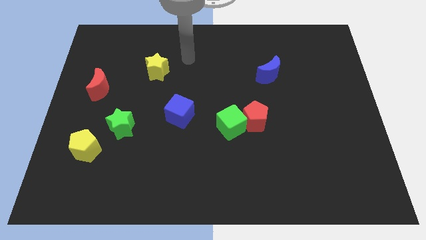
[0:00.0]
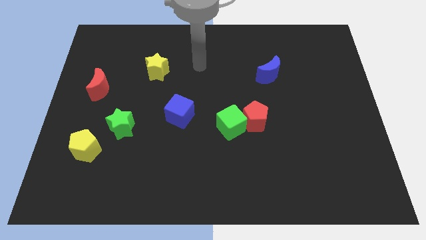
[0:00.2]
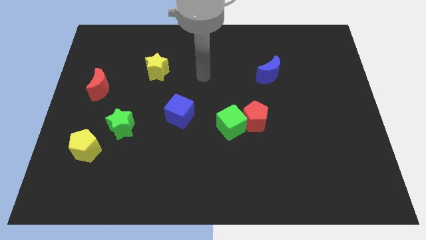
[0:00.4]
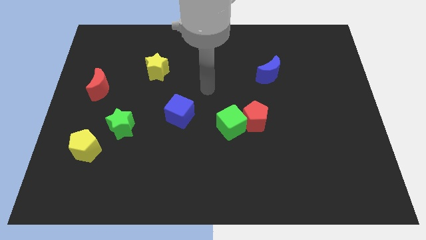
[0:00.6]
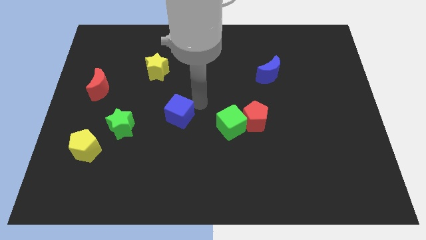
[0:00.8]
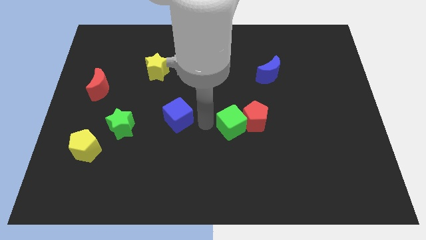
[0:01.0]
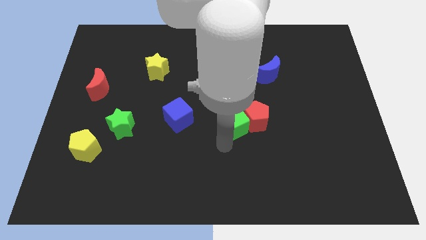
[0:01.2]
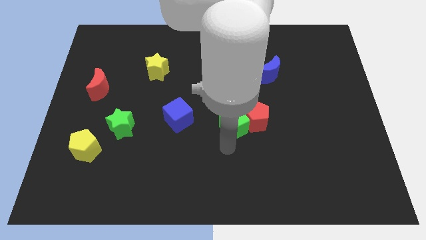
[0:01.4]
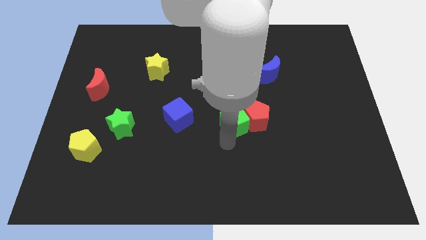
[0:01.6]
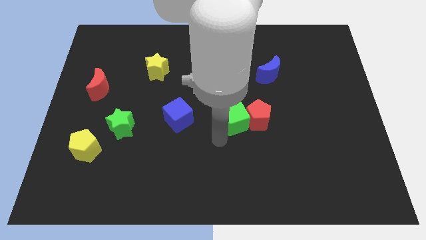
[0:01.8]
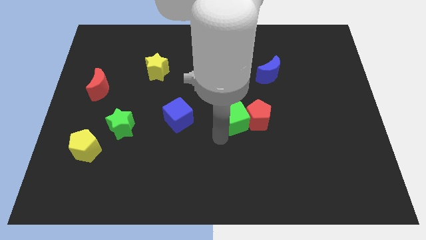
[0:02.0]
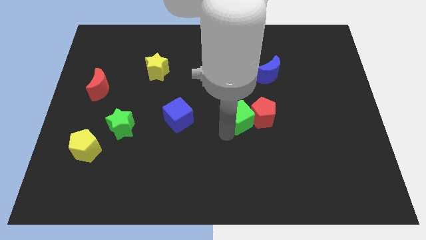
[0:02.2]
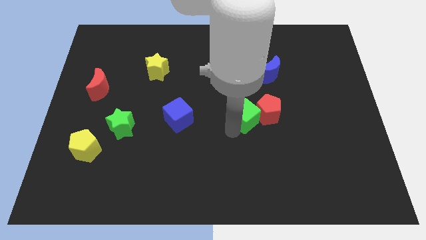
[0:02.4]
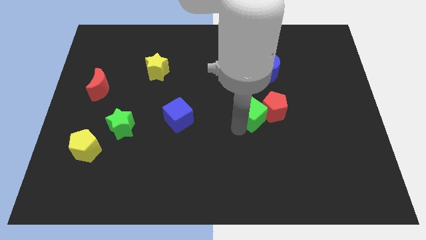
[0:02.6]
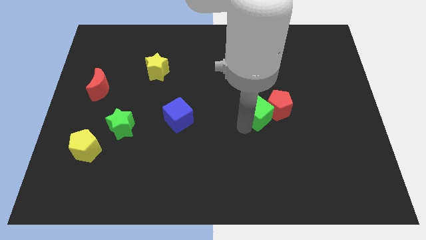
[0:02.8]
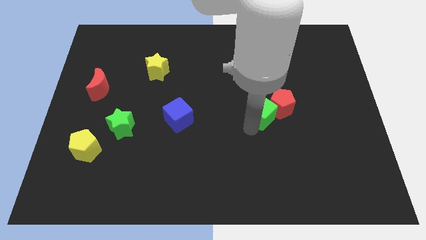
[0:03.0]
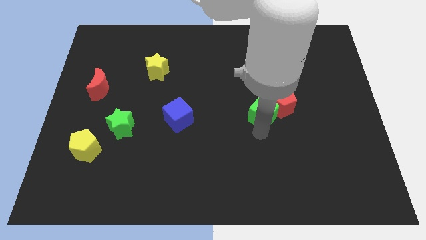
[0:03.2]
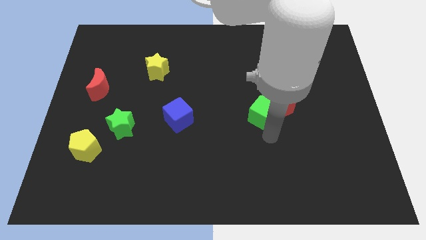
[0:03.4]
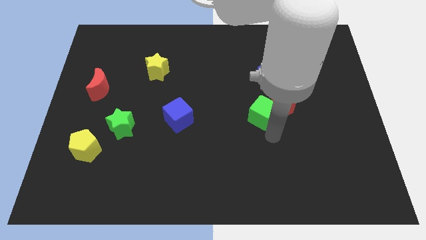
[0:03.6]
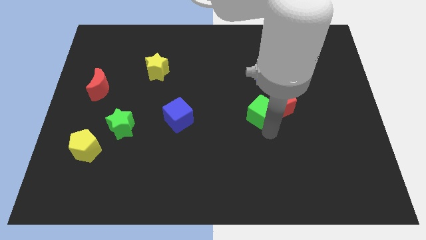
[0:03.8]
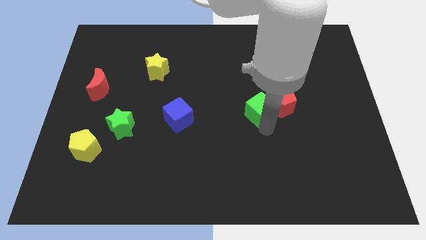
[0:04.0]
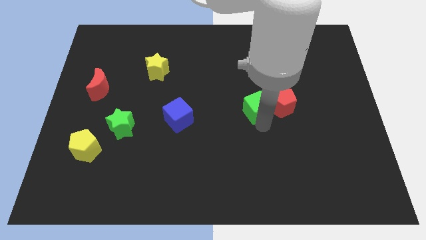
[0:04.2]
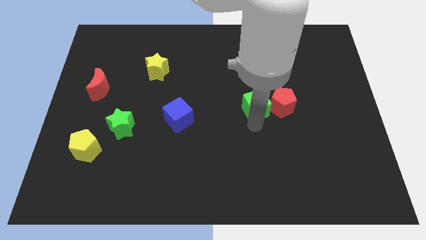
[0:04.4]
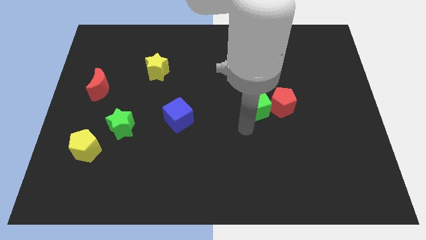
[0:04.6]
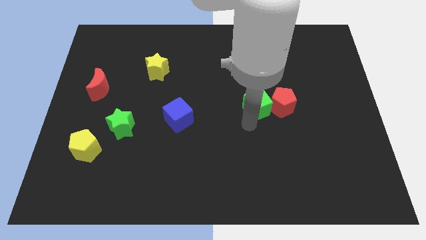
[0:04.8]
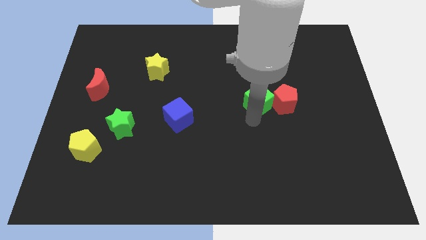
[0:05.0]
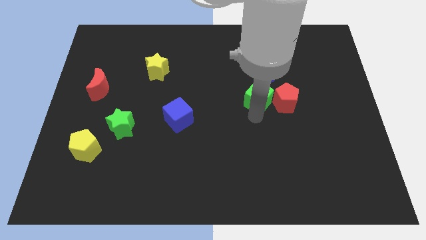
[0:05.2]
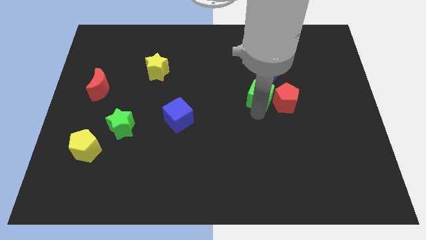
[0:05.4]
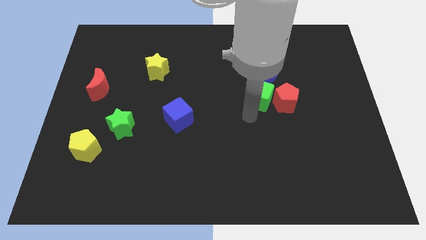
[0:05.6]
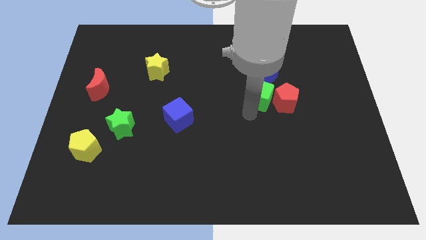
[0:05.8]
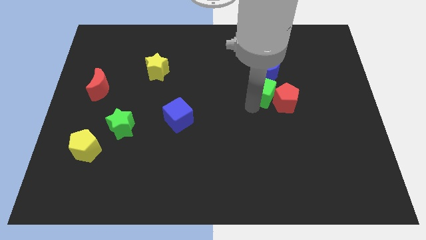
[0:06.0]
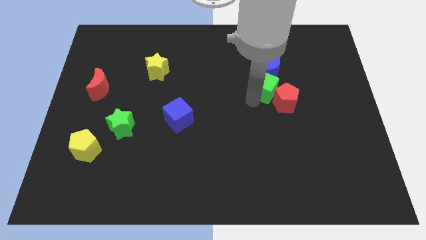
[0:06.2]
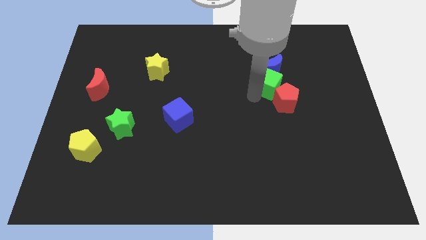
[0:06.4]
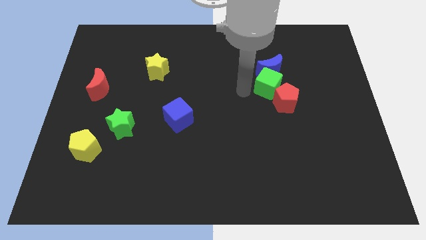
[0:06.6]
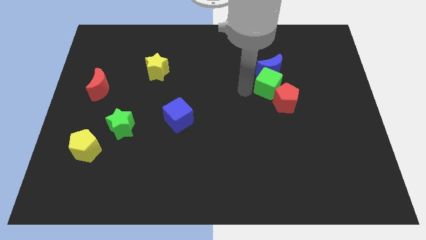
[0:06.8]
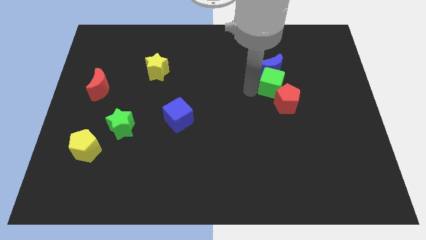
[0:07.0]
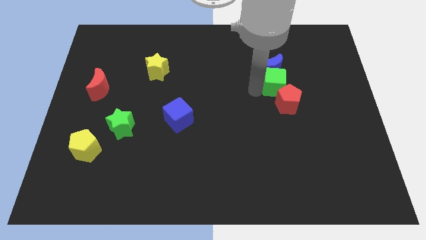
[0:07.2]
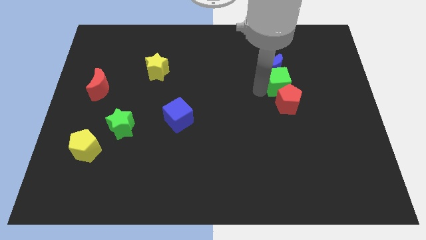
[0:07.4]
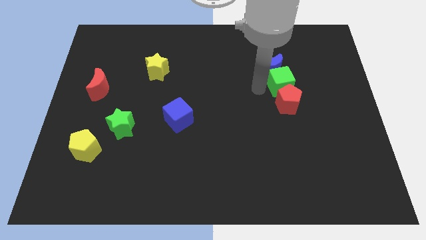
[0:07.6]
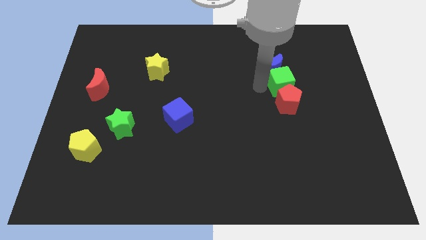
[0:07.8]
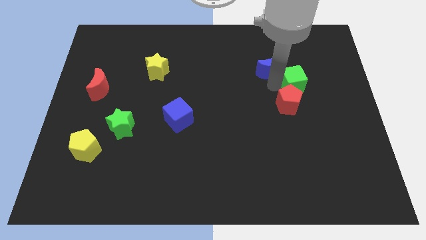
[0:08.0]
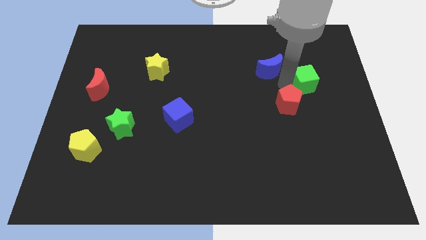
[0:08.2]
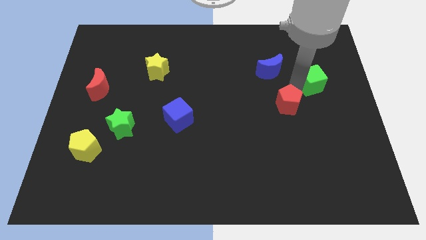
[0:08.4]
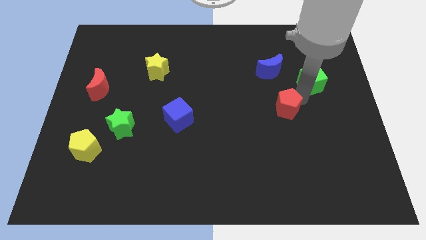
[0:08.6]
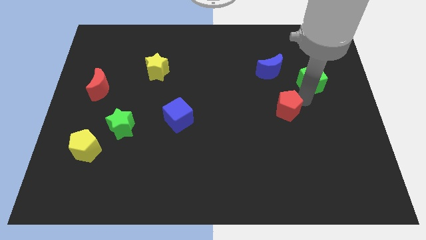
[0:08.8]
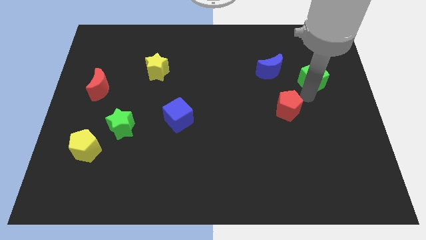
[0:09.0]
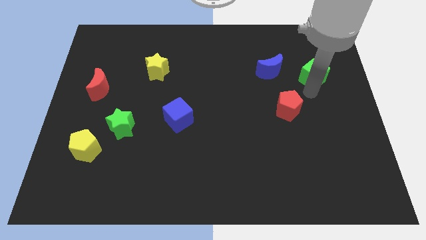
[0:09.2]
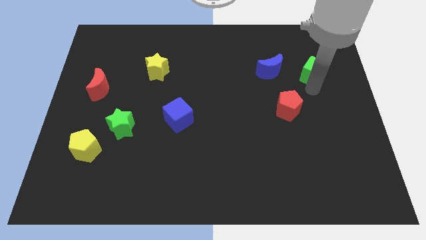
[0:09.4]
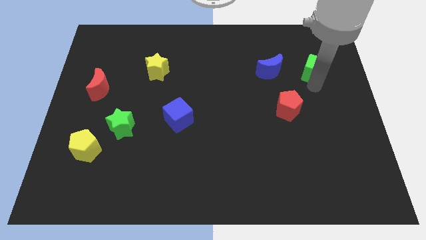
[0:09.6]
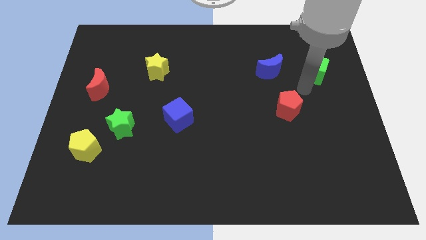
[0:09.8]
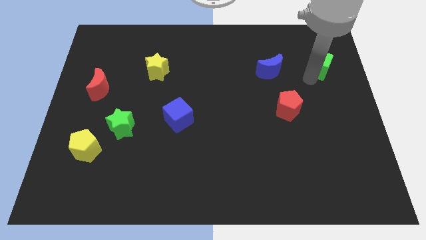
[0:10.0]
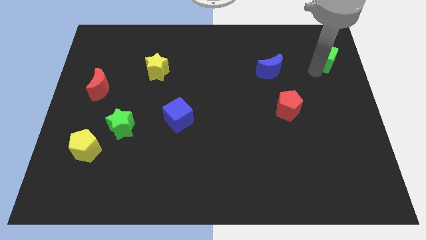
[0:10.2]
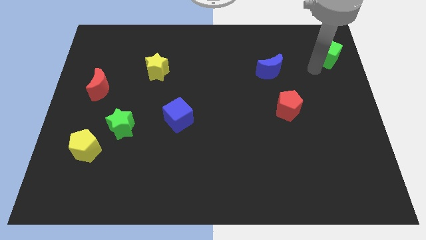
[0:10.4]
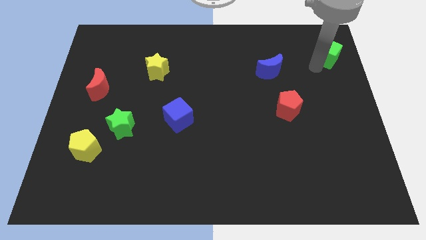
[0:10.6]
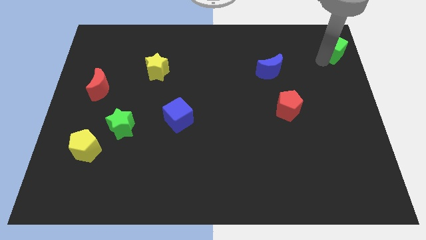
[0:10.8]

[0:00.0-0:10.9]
move the green cube to the top right corner

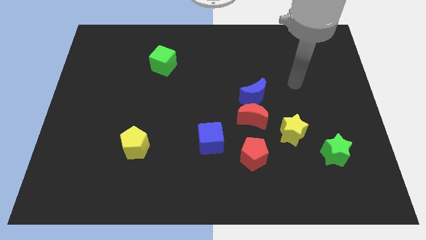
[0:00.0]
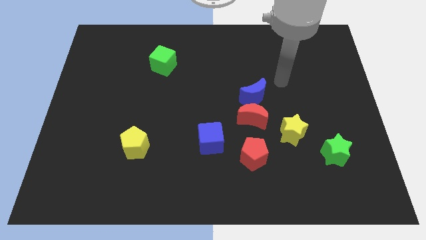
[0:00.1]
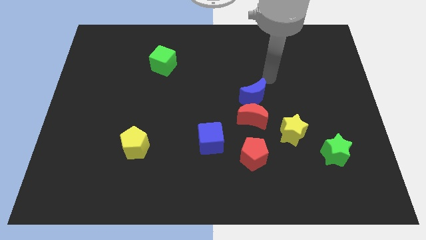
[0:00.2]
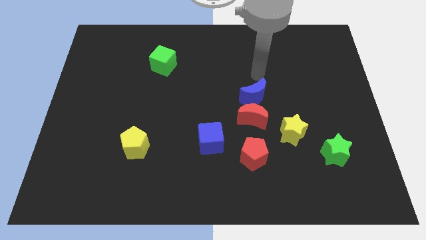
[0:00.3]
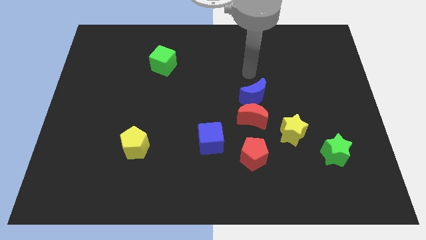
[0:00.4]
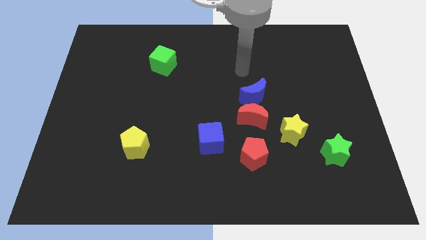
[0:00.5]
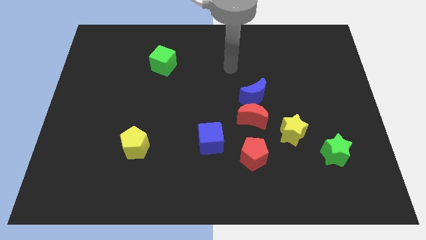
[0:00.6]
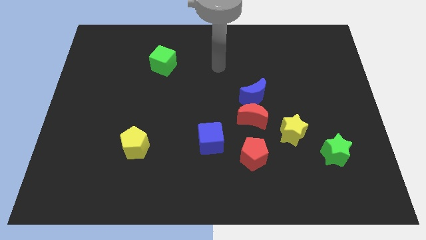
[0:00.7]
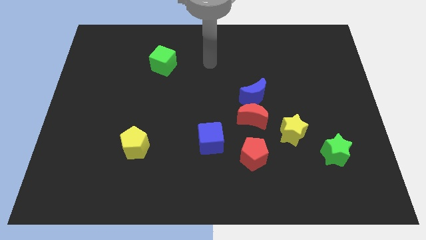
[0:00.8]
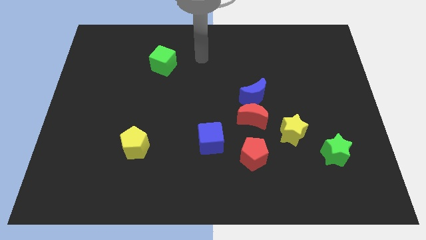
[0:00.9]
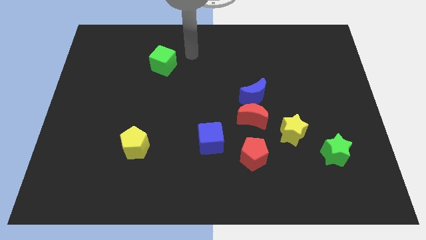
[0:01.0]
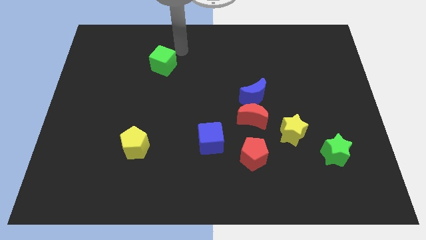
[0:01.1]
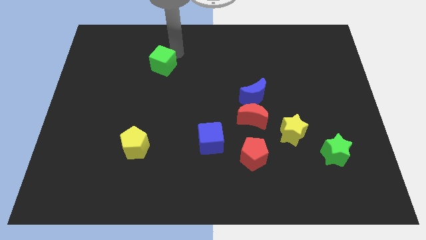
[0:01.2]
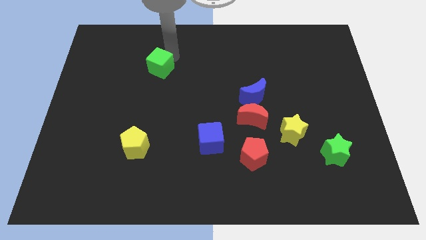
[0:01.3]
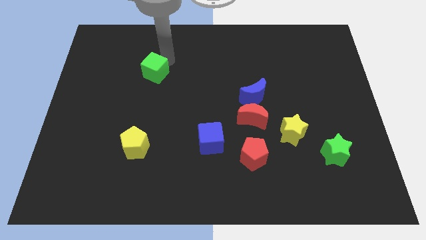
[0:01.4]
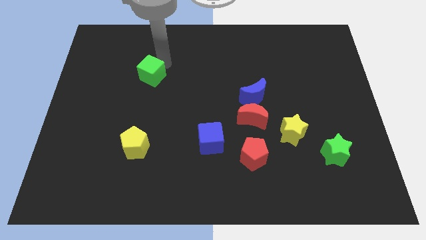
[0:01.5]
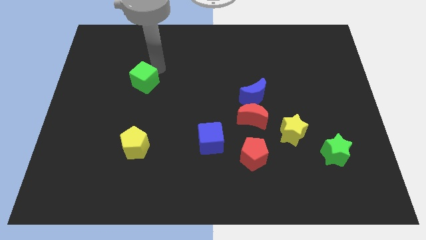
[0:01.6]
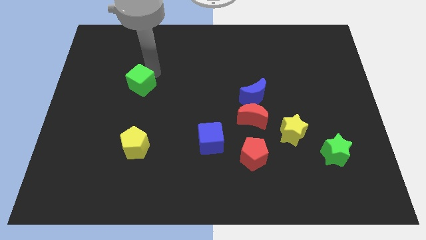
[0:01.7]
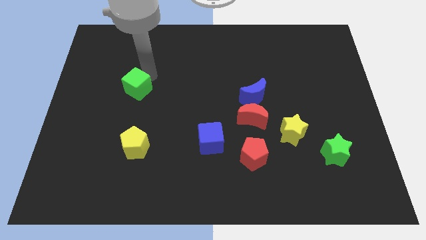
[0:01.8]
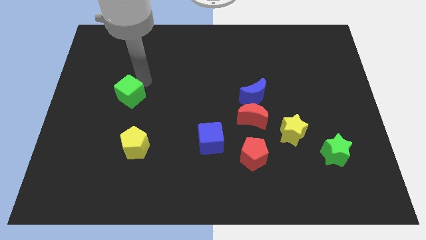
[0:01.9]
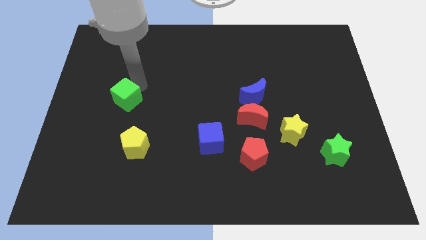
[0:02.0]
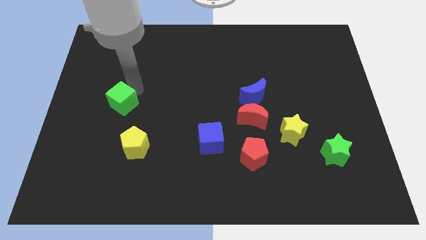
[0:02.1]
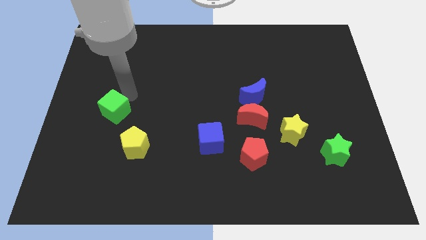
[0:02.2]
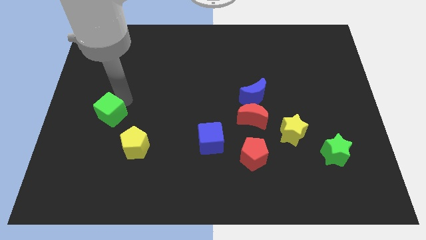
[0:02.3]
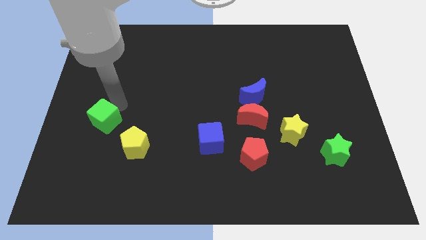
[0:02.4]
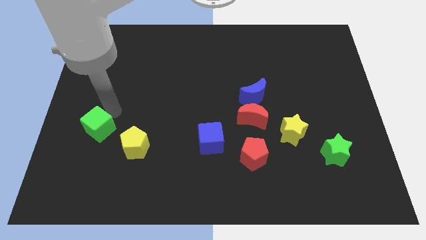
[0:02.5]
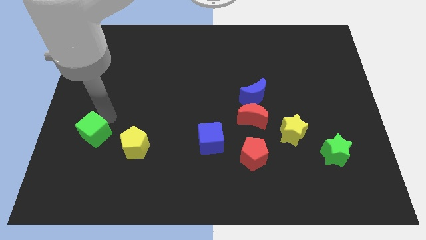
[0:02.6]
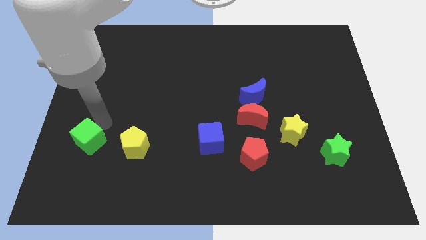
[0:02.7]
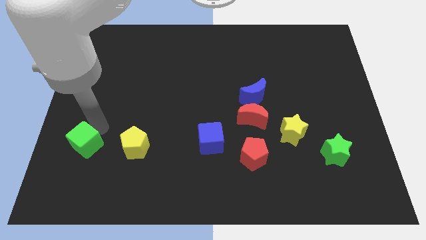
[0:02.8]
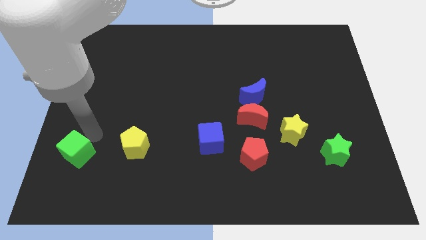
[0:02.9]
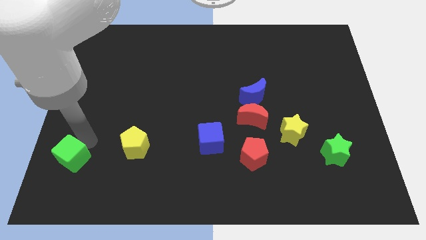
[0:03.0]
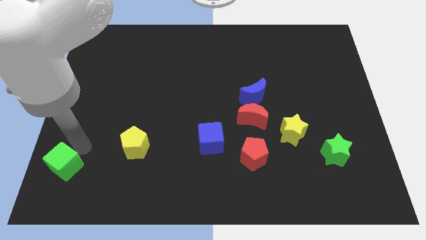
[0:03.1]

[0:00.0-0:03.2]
put the green cube to the bottom left corner
